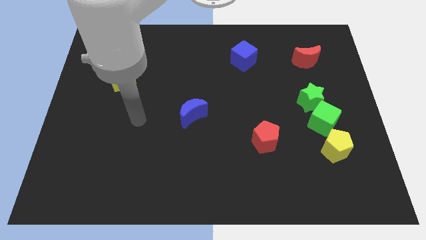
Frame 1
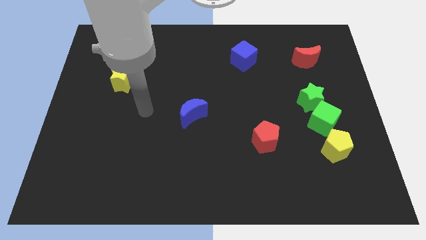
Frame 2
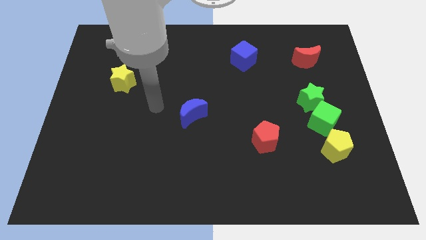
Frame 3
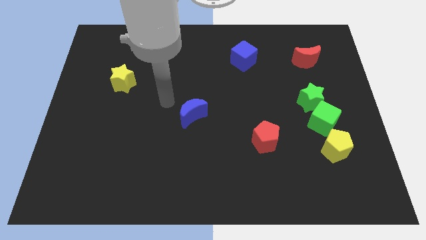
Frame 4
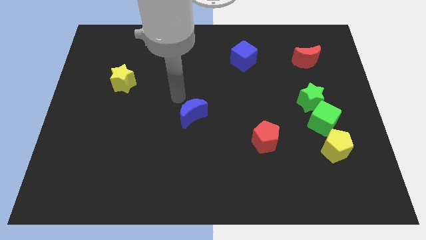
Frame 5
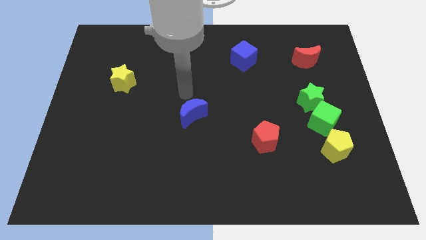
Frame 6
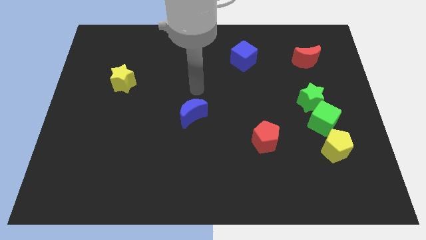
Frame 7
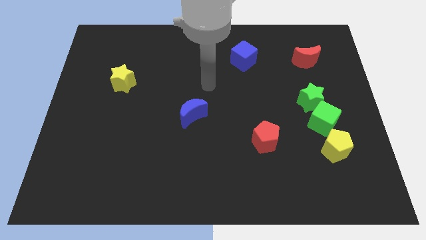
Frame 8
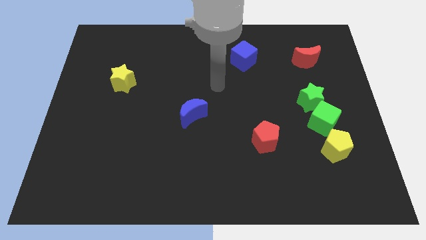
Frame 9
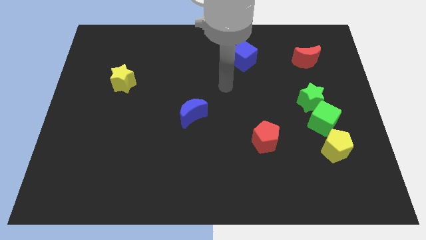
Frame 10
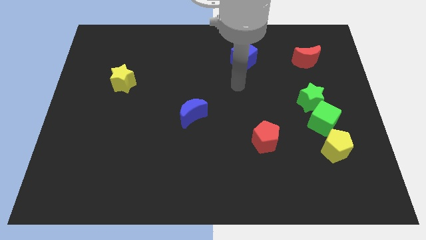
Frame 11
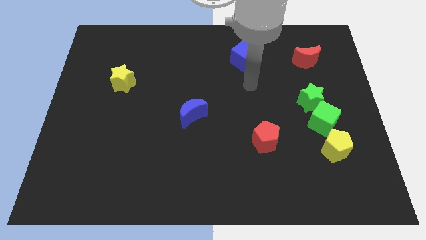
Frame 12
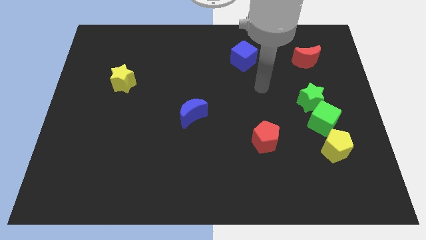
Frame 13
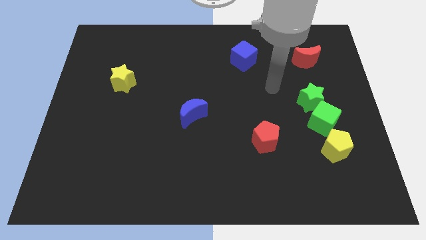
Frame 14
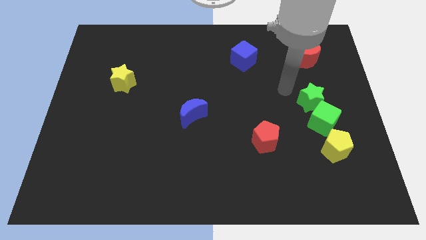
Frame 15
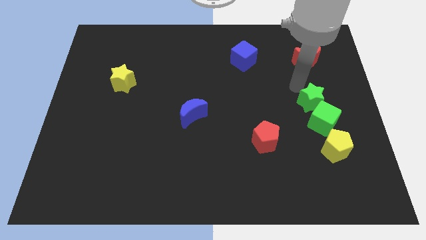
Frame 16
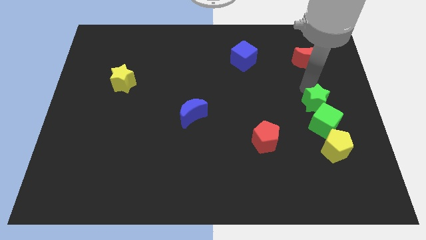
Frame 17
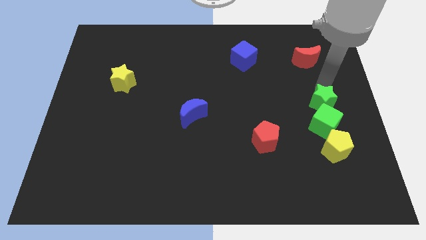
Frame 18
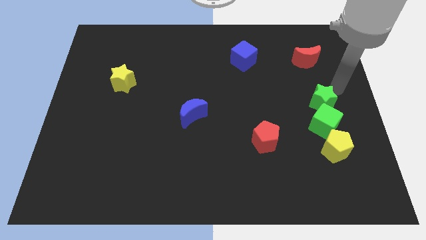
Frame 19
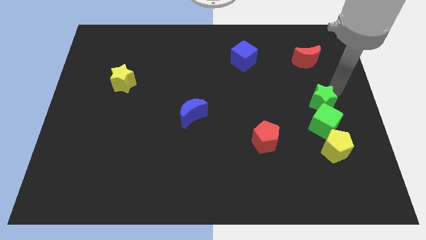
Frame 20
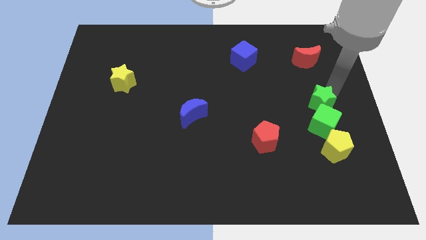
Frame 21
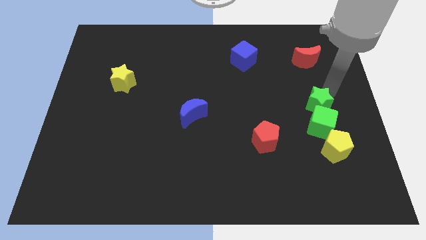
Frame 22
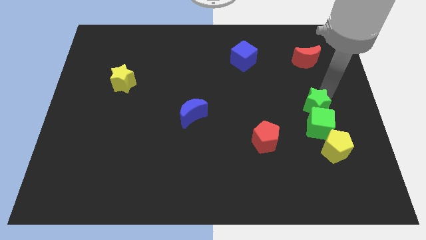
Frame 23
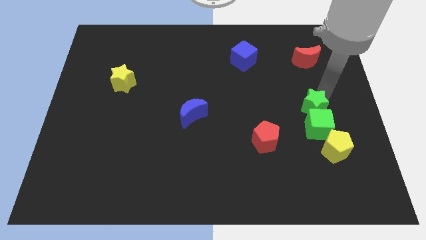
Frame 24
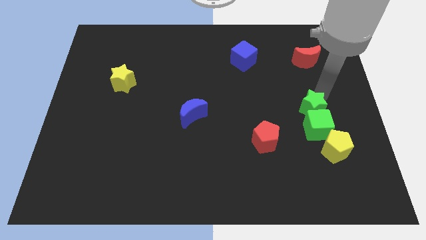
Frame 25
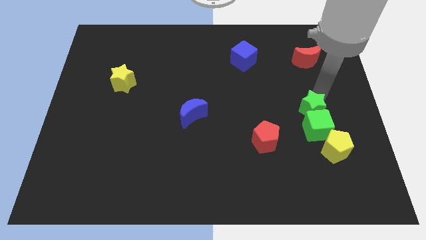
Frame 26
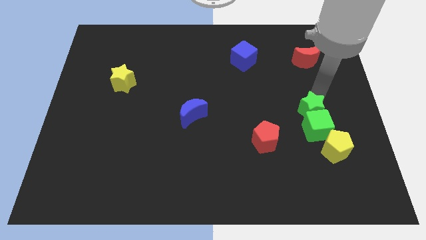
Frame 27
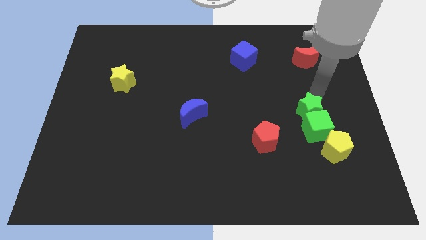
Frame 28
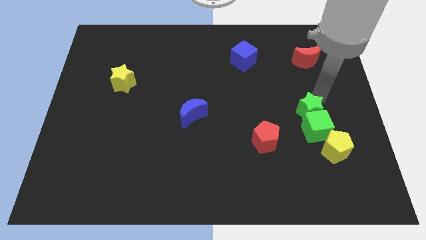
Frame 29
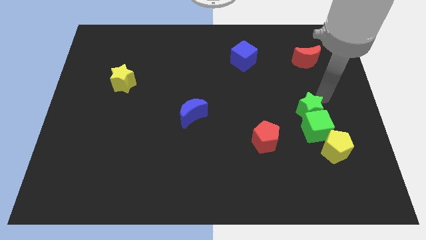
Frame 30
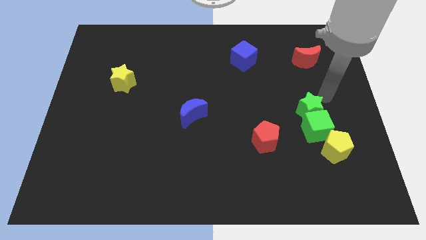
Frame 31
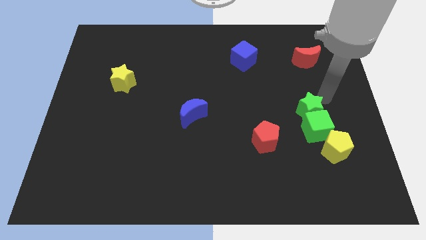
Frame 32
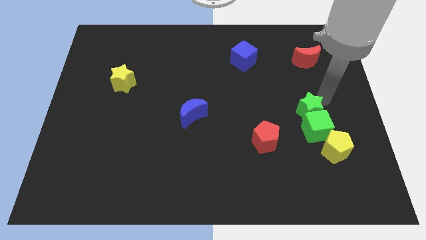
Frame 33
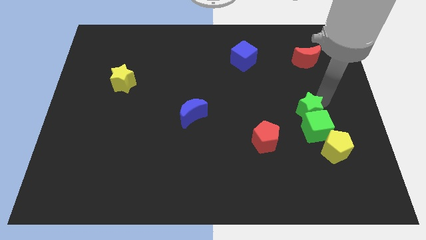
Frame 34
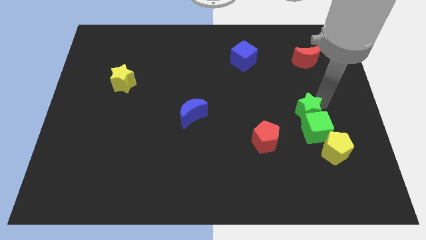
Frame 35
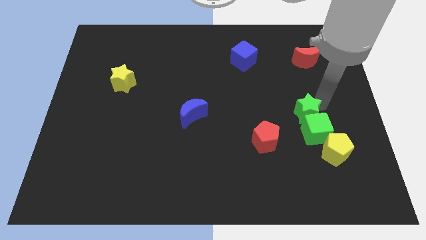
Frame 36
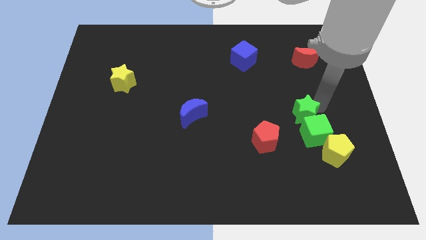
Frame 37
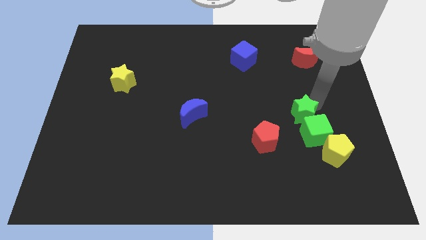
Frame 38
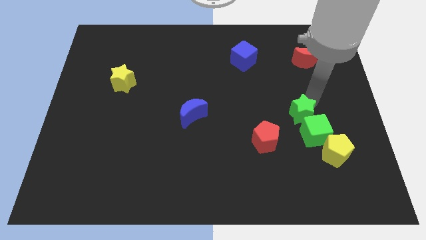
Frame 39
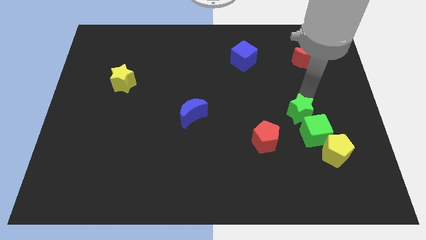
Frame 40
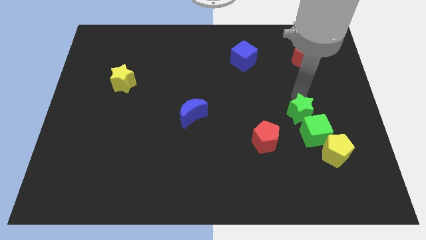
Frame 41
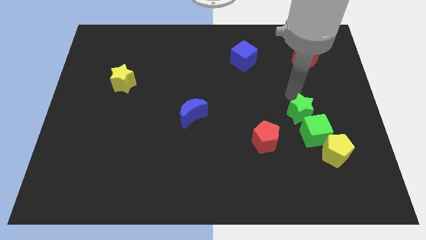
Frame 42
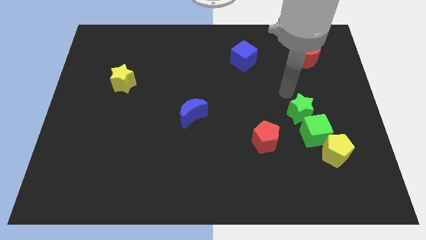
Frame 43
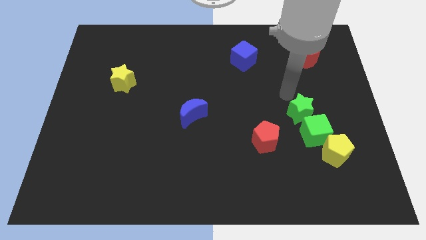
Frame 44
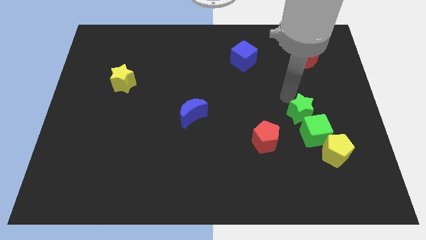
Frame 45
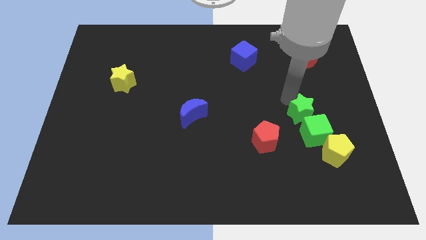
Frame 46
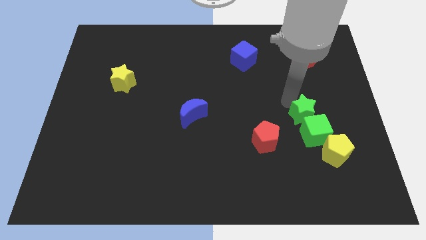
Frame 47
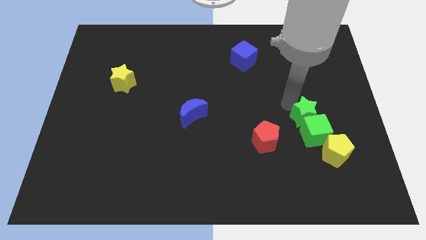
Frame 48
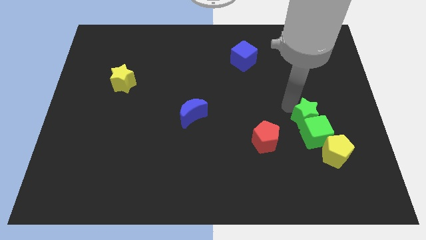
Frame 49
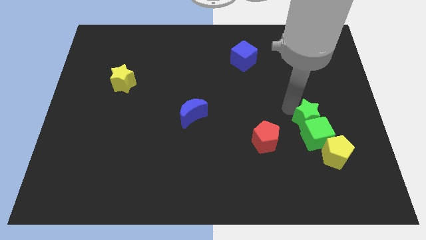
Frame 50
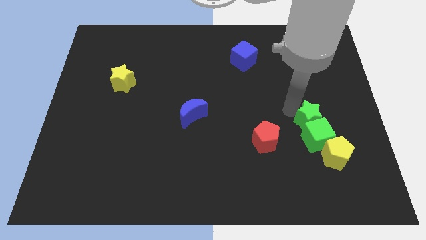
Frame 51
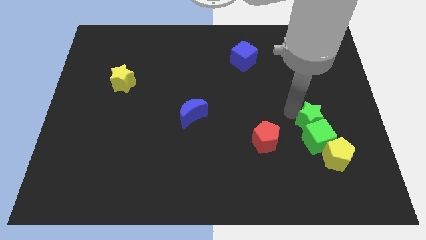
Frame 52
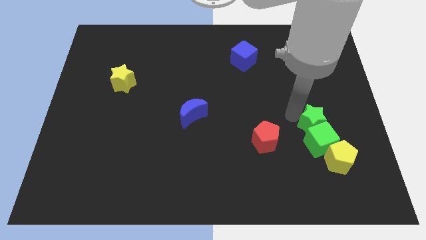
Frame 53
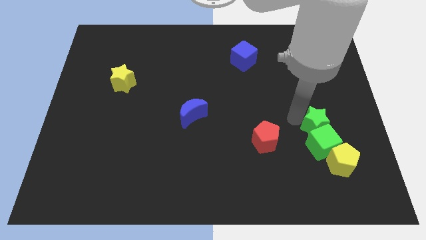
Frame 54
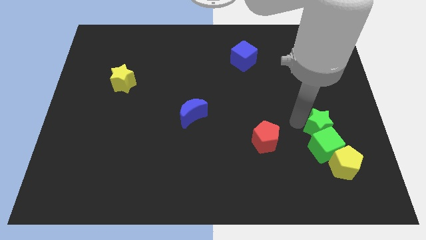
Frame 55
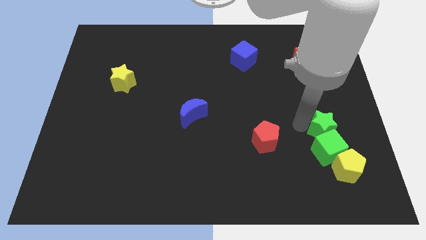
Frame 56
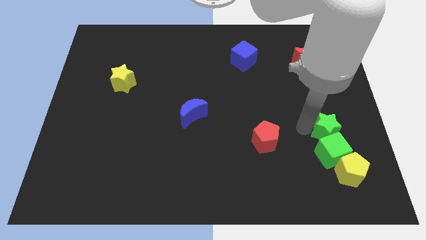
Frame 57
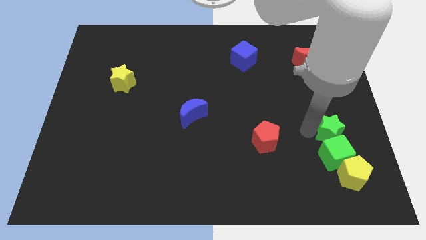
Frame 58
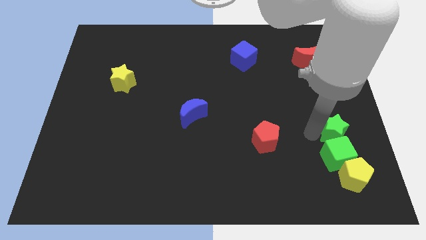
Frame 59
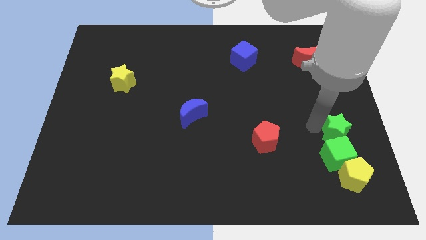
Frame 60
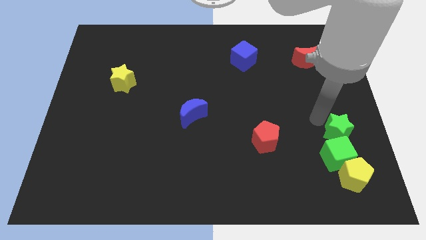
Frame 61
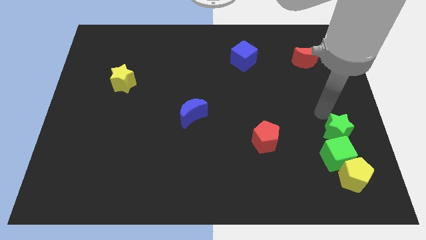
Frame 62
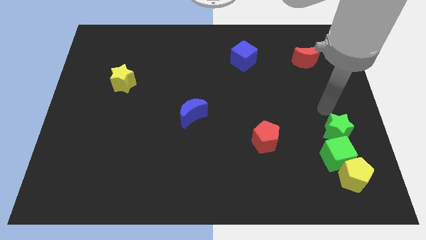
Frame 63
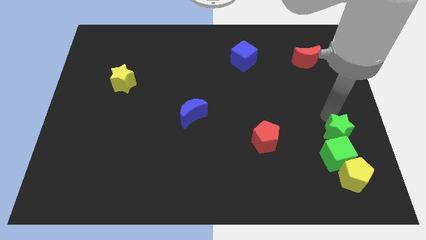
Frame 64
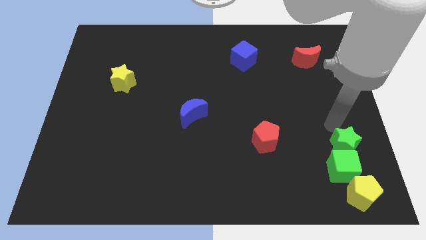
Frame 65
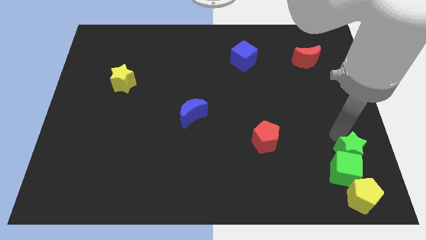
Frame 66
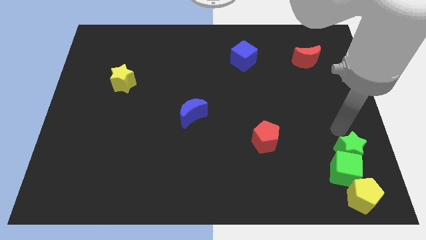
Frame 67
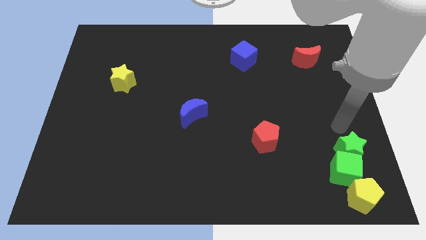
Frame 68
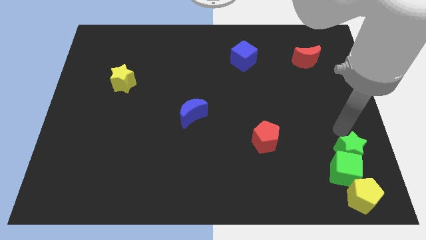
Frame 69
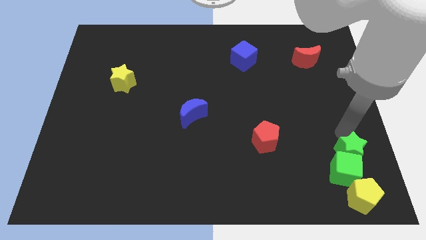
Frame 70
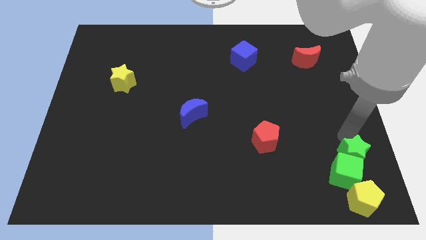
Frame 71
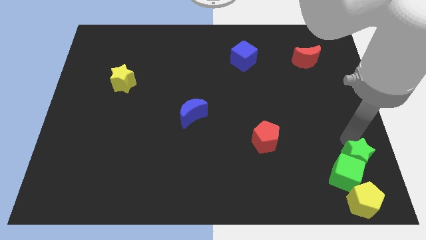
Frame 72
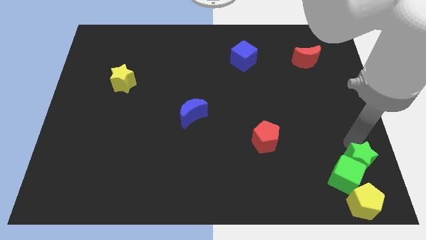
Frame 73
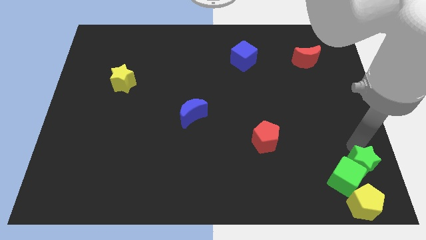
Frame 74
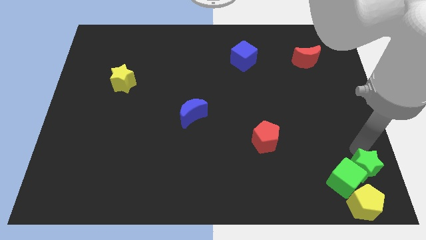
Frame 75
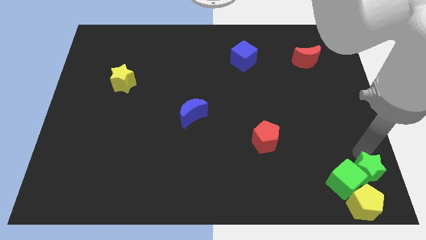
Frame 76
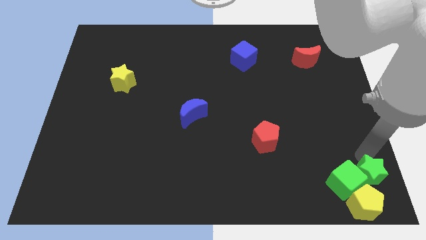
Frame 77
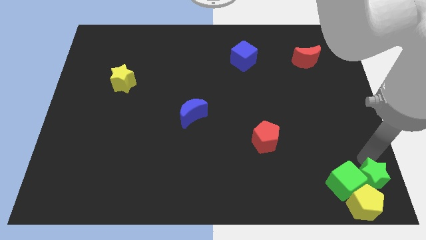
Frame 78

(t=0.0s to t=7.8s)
put the green star to the yellow pentagon
